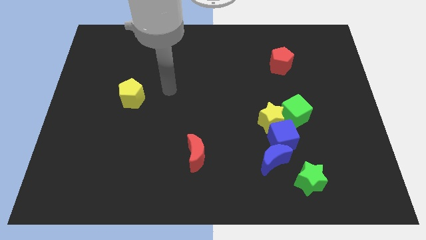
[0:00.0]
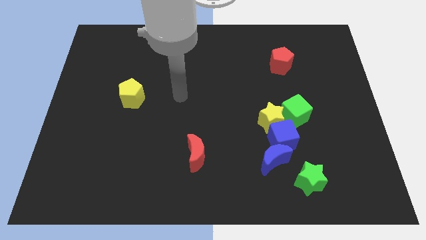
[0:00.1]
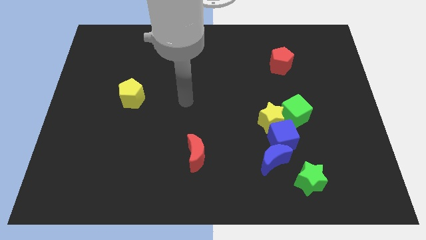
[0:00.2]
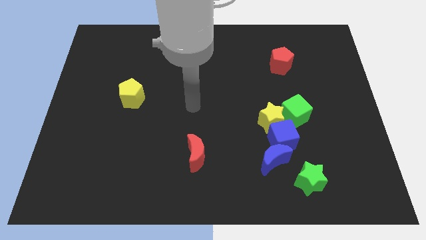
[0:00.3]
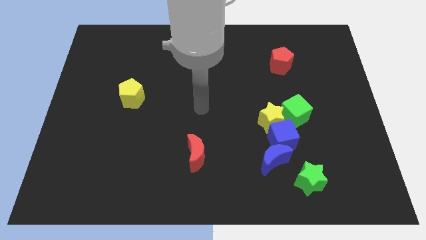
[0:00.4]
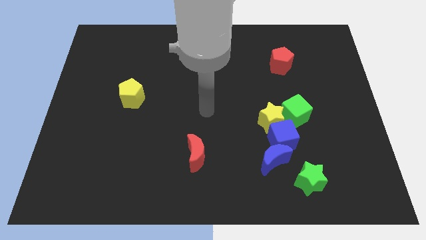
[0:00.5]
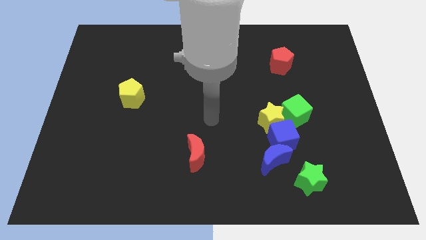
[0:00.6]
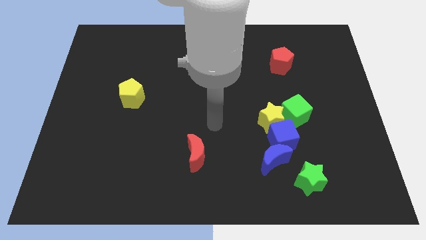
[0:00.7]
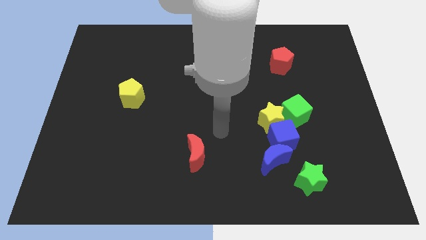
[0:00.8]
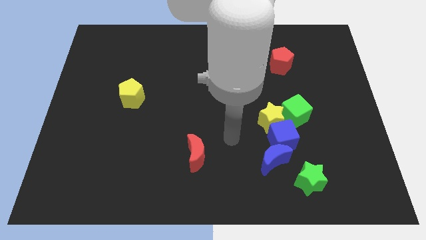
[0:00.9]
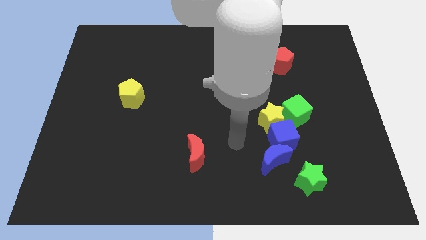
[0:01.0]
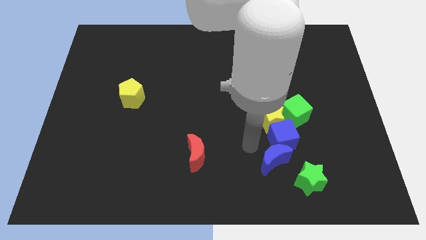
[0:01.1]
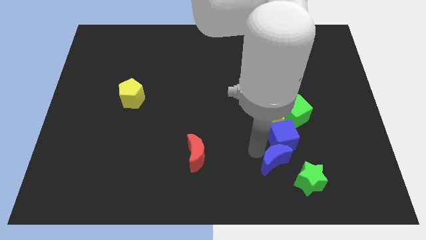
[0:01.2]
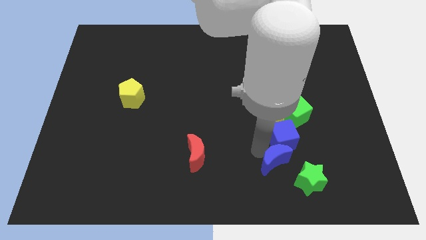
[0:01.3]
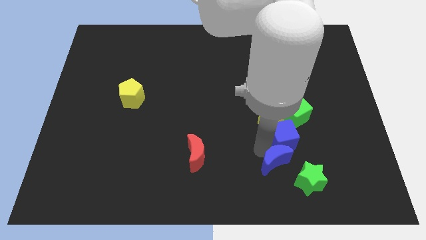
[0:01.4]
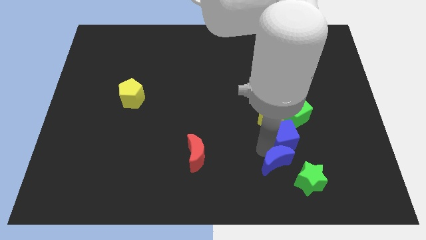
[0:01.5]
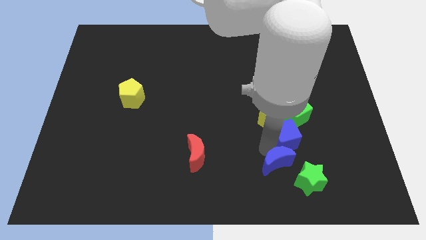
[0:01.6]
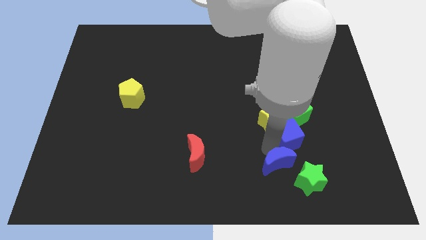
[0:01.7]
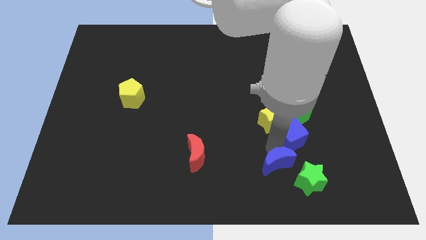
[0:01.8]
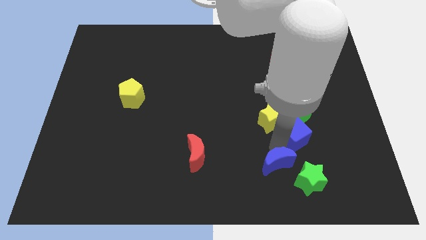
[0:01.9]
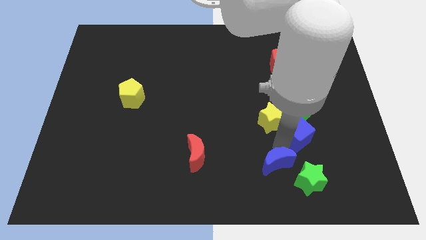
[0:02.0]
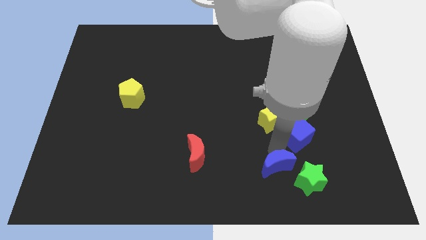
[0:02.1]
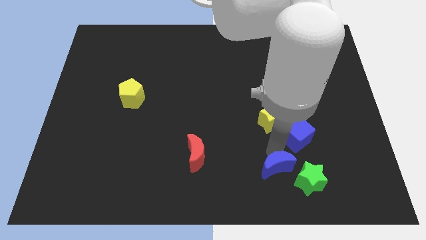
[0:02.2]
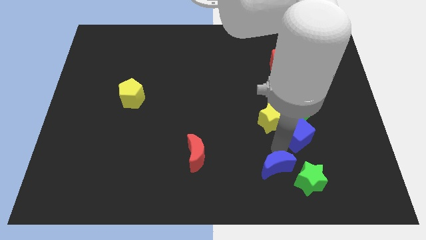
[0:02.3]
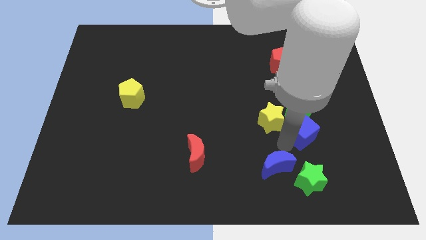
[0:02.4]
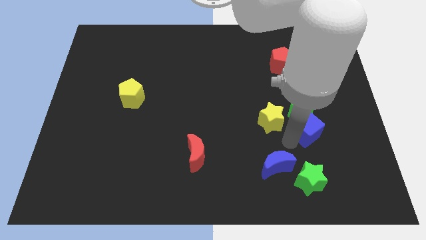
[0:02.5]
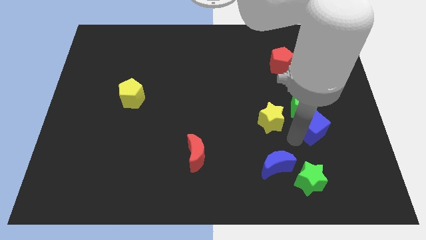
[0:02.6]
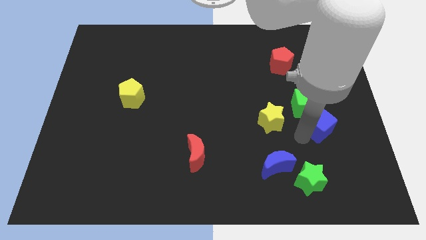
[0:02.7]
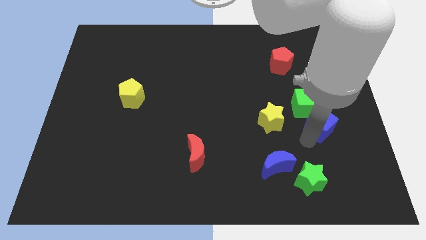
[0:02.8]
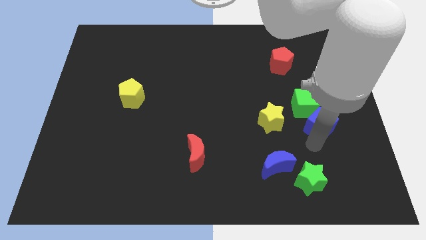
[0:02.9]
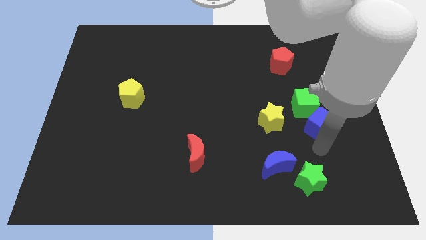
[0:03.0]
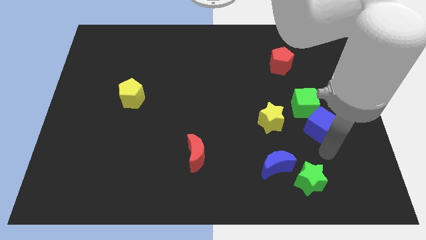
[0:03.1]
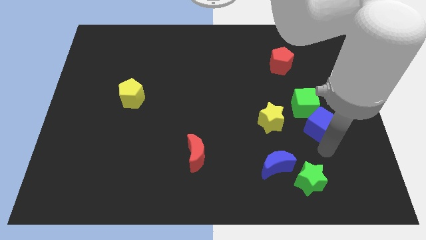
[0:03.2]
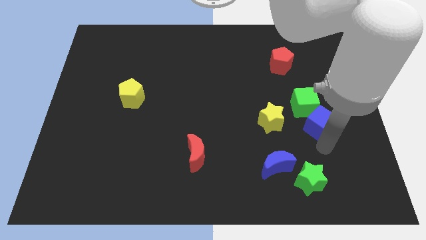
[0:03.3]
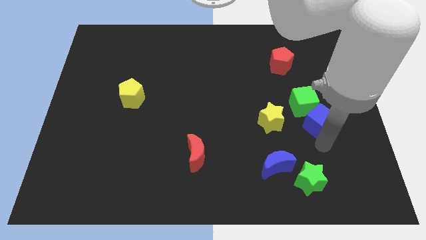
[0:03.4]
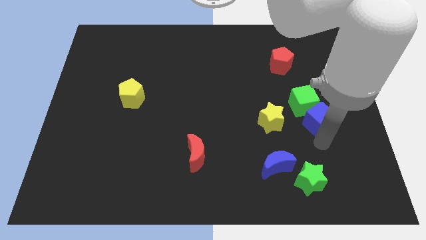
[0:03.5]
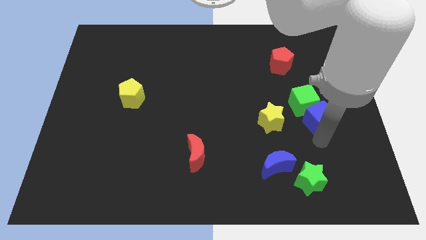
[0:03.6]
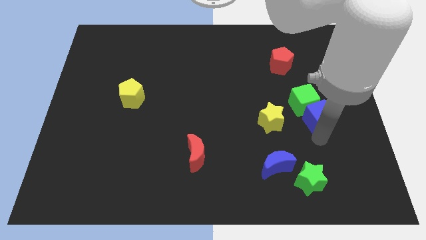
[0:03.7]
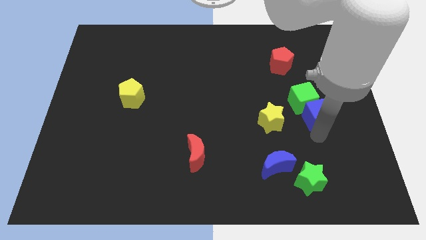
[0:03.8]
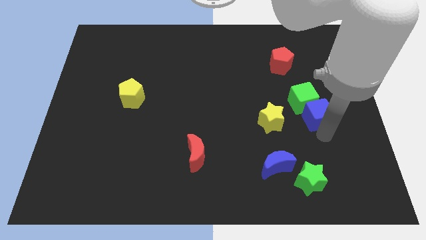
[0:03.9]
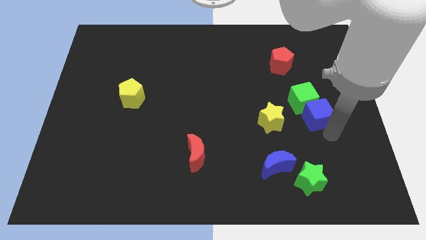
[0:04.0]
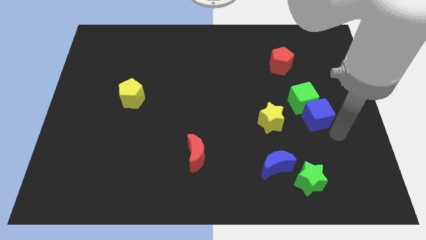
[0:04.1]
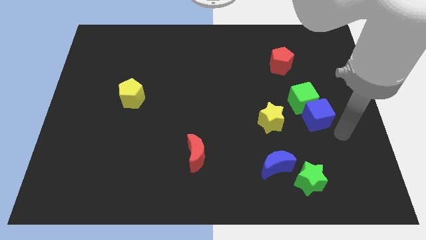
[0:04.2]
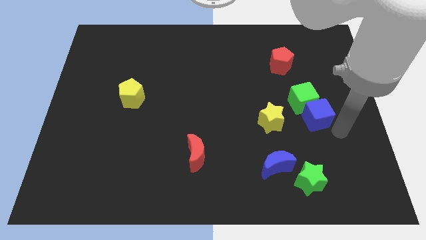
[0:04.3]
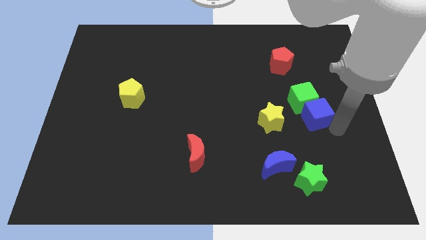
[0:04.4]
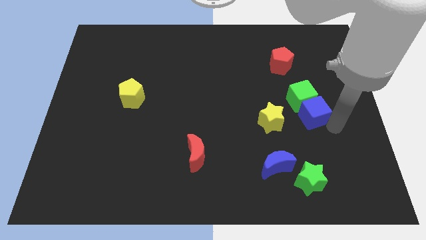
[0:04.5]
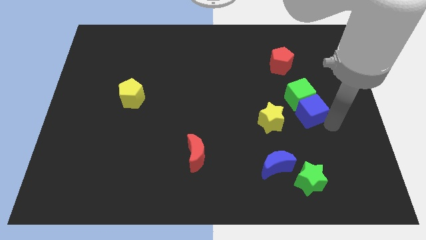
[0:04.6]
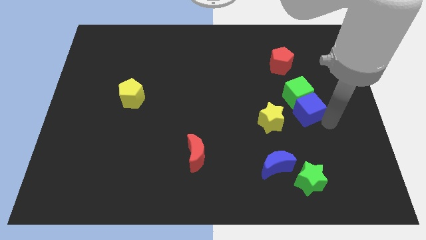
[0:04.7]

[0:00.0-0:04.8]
put the blue cube diagonally up and to the right of the yellow star

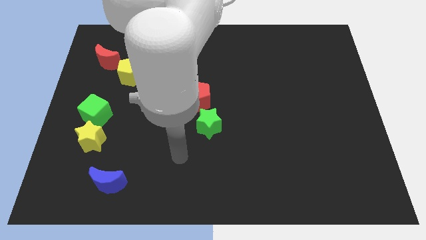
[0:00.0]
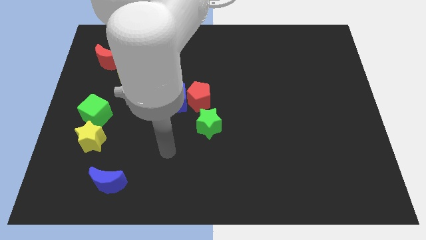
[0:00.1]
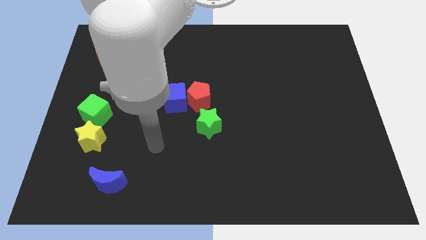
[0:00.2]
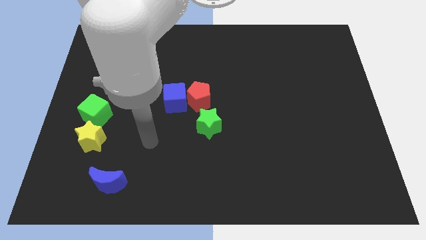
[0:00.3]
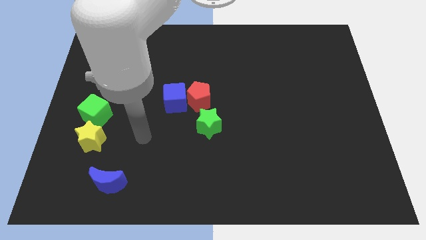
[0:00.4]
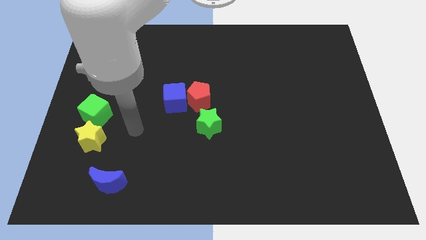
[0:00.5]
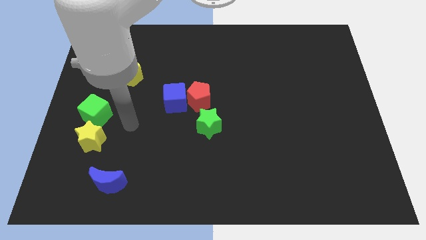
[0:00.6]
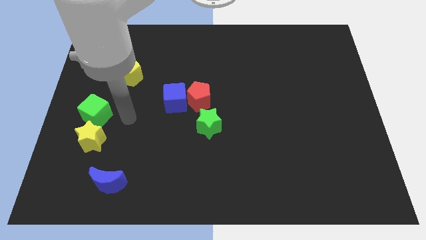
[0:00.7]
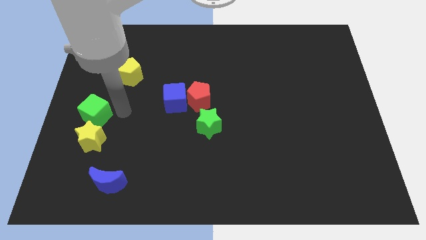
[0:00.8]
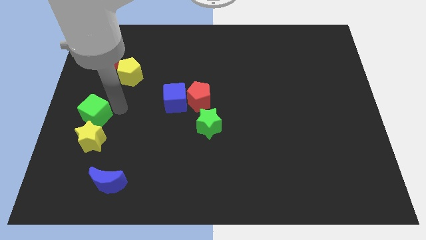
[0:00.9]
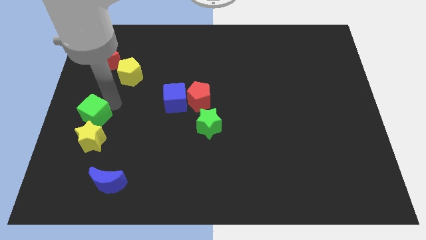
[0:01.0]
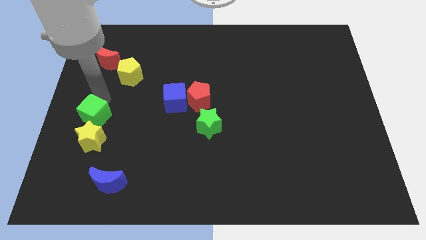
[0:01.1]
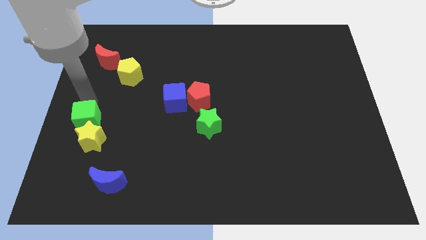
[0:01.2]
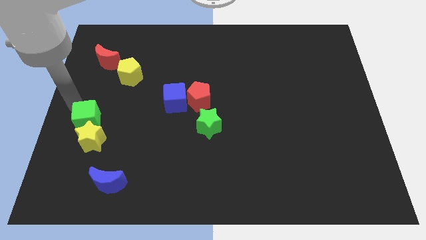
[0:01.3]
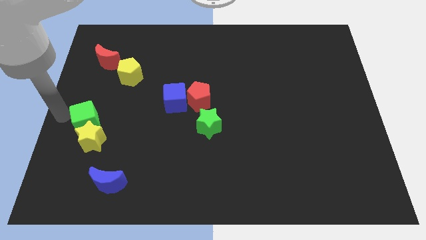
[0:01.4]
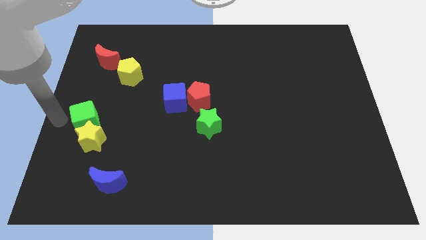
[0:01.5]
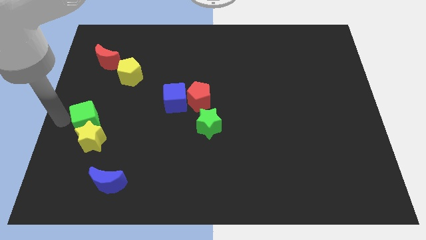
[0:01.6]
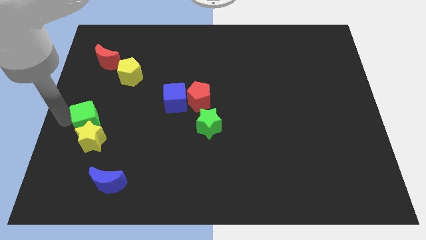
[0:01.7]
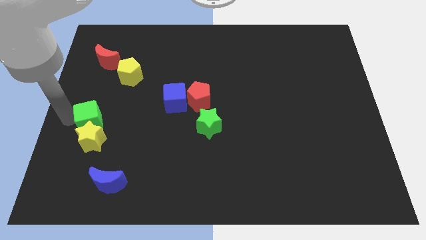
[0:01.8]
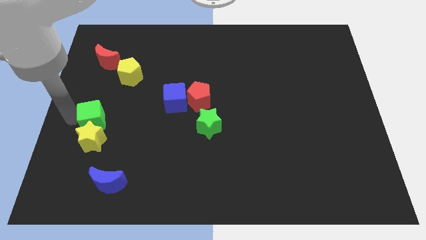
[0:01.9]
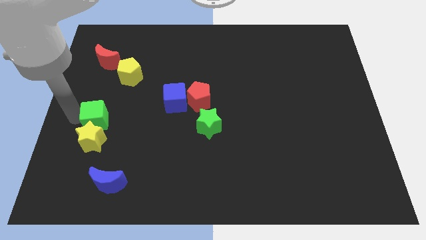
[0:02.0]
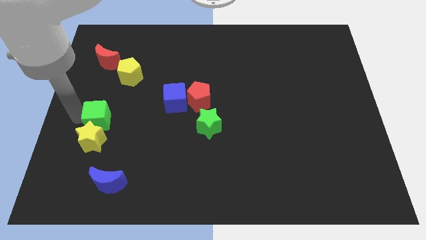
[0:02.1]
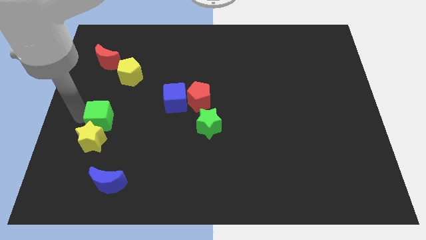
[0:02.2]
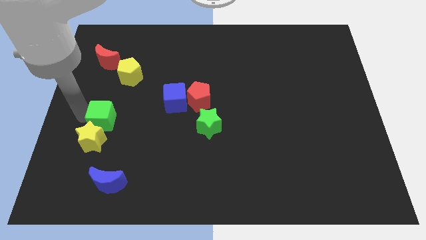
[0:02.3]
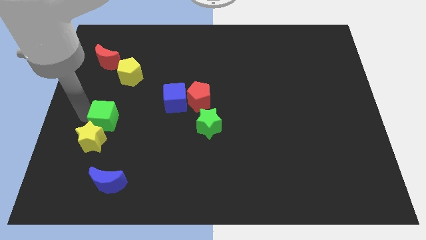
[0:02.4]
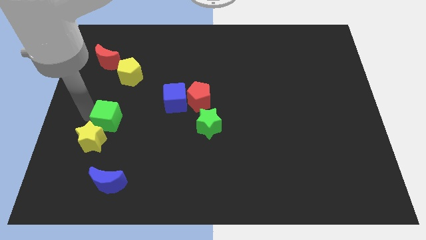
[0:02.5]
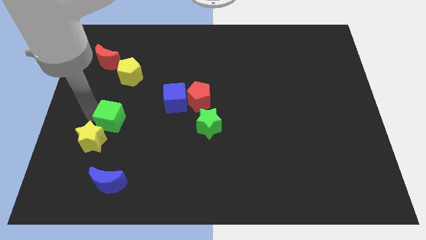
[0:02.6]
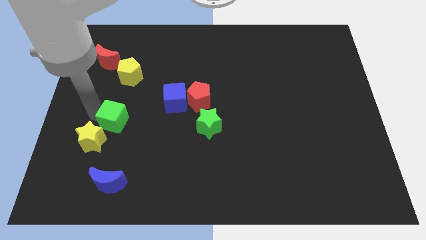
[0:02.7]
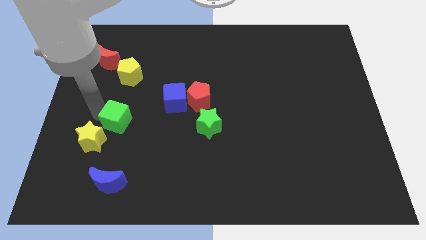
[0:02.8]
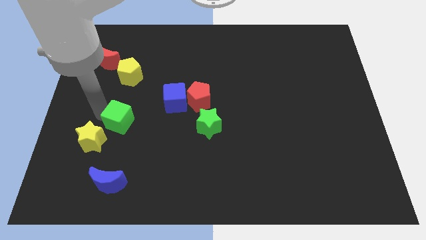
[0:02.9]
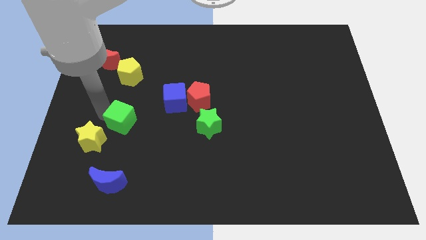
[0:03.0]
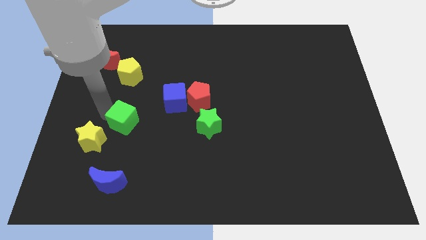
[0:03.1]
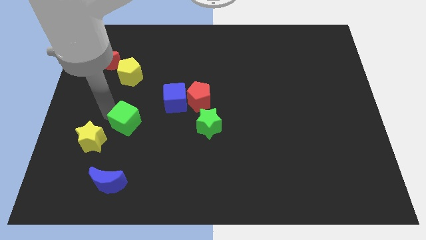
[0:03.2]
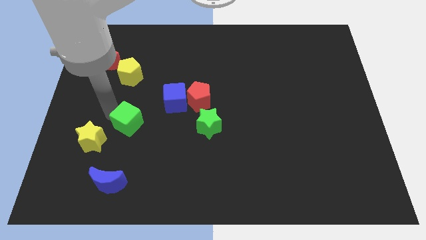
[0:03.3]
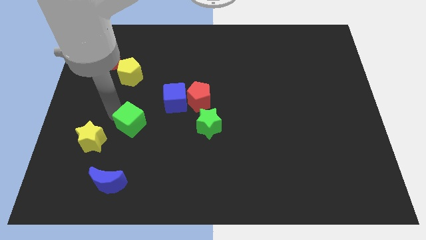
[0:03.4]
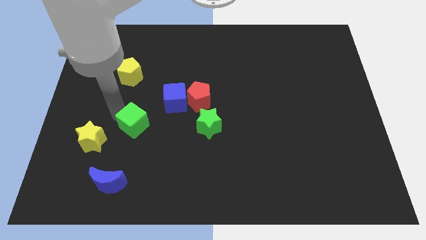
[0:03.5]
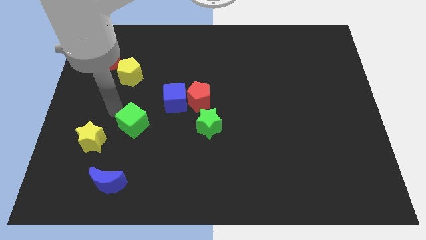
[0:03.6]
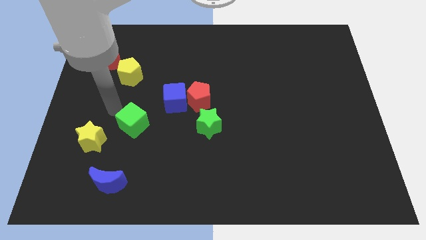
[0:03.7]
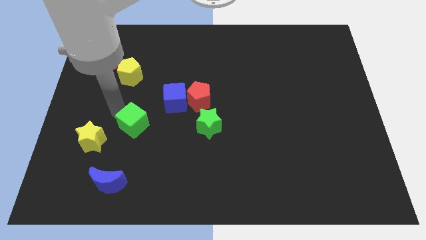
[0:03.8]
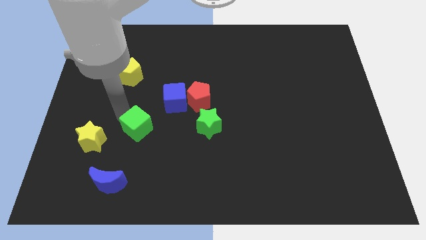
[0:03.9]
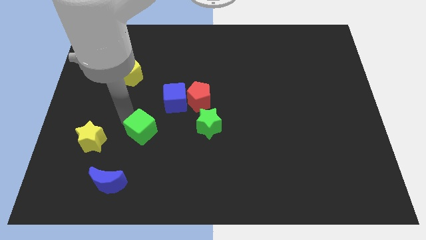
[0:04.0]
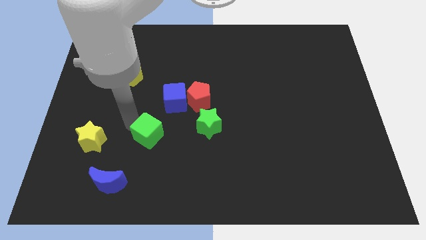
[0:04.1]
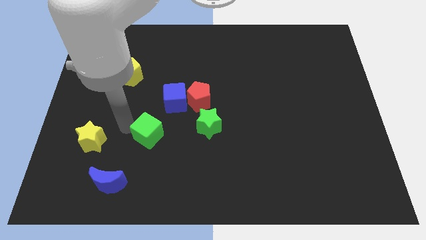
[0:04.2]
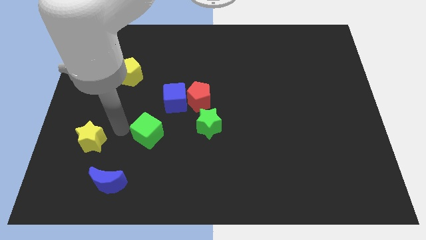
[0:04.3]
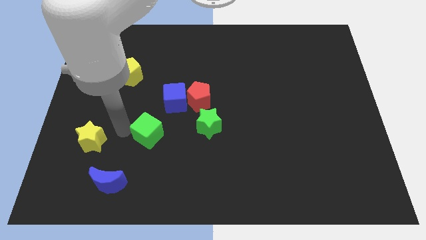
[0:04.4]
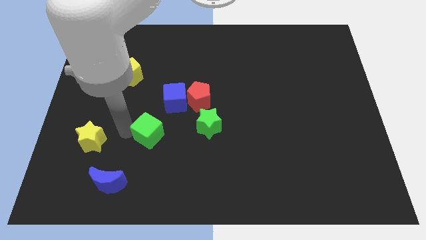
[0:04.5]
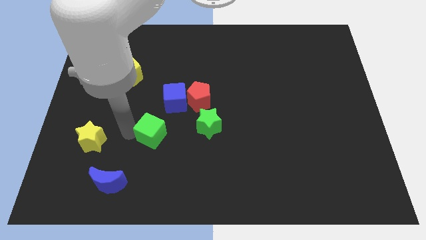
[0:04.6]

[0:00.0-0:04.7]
push the green cube to the bottom of the blue cube
